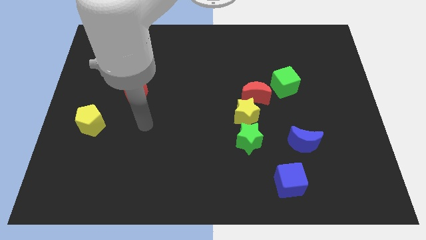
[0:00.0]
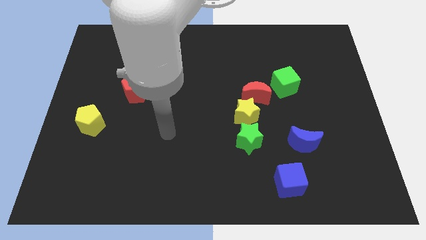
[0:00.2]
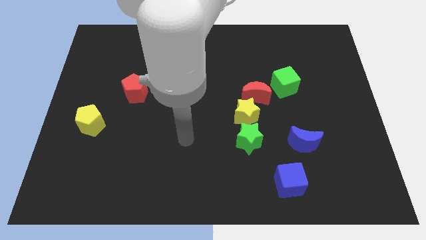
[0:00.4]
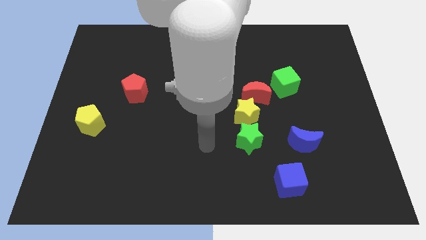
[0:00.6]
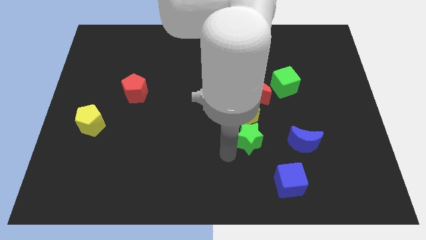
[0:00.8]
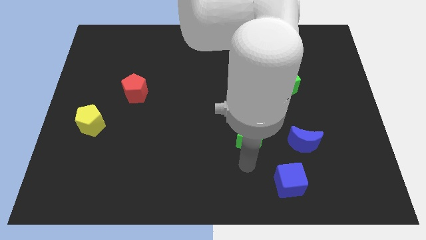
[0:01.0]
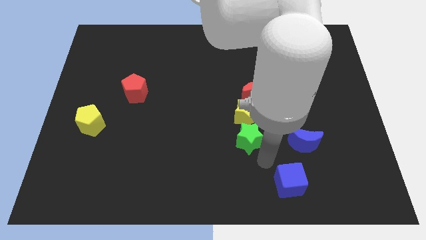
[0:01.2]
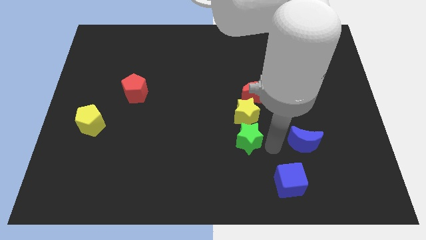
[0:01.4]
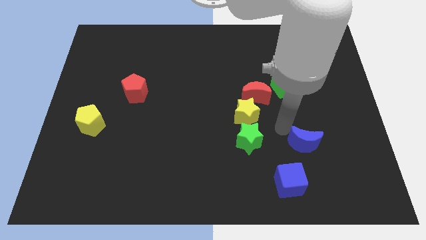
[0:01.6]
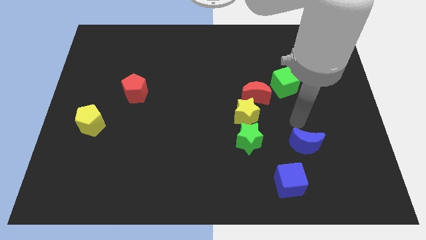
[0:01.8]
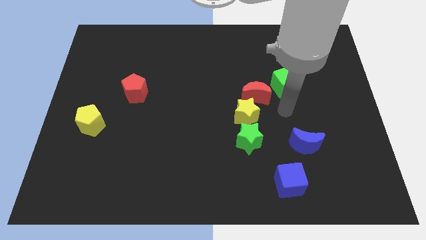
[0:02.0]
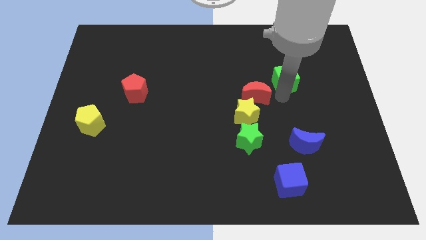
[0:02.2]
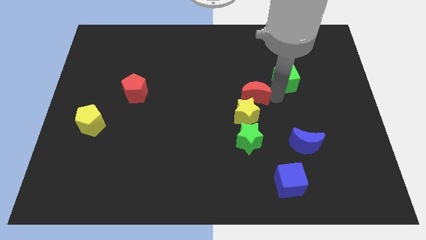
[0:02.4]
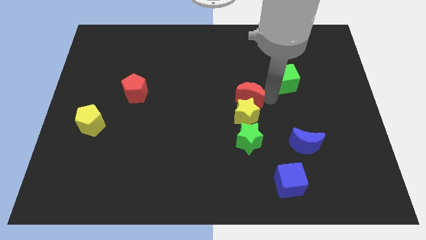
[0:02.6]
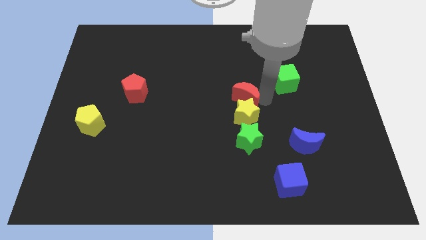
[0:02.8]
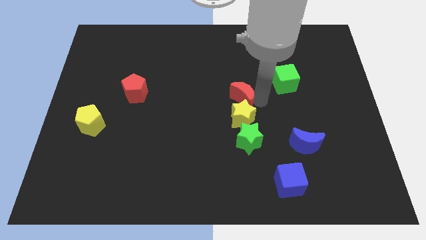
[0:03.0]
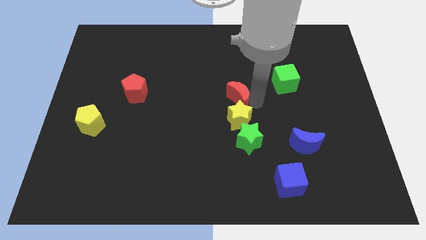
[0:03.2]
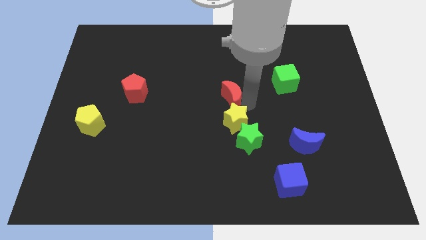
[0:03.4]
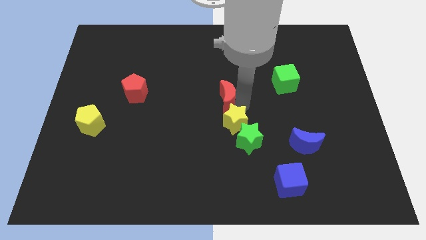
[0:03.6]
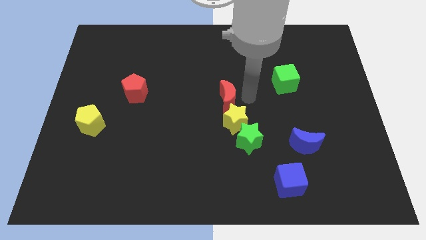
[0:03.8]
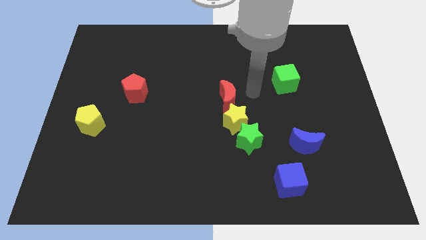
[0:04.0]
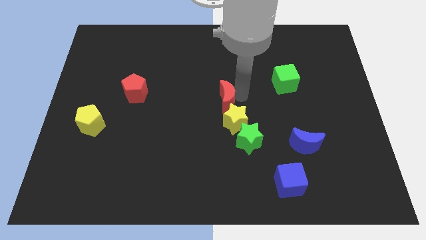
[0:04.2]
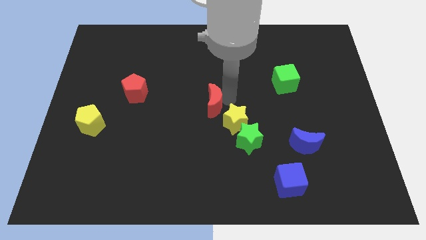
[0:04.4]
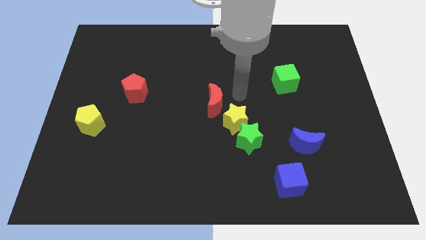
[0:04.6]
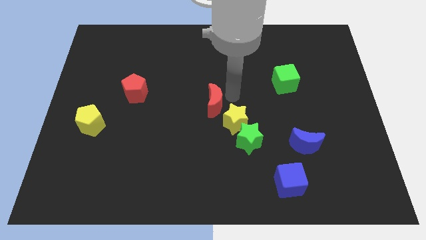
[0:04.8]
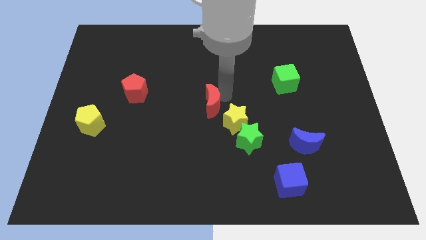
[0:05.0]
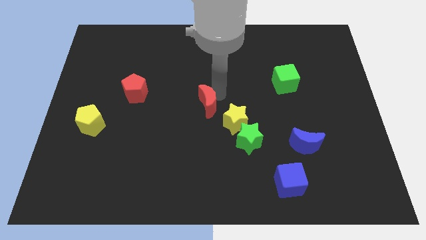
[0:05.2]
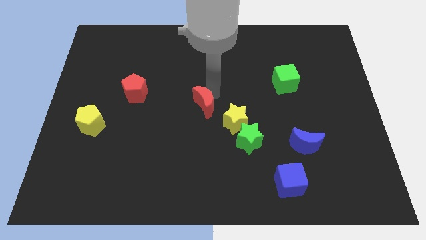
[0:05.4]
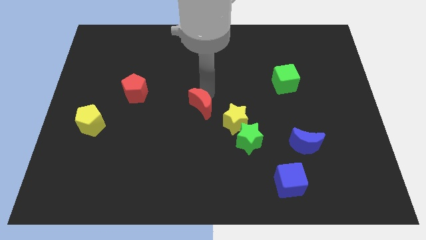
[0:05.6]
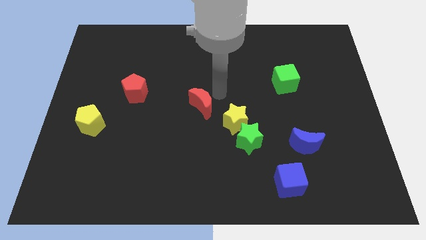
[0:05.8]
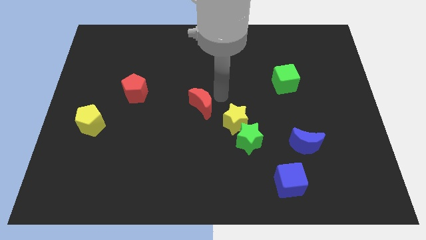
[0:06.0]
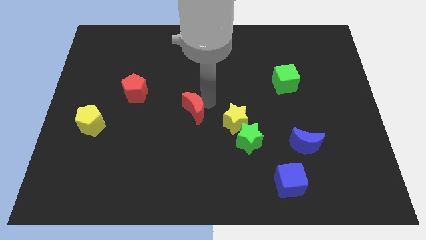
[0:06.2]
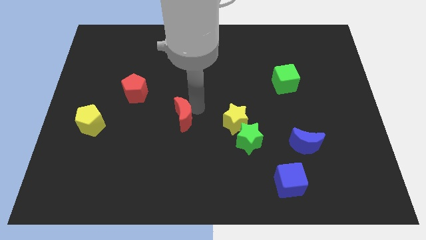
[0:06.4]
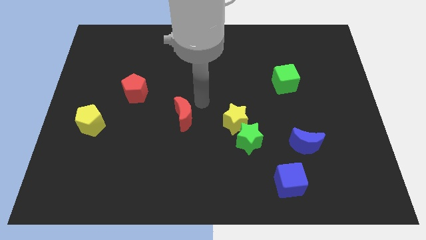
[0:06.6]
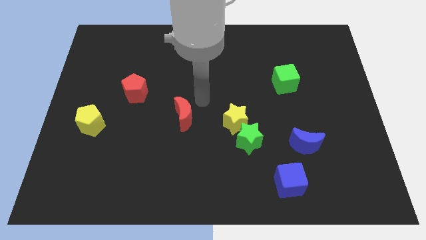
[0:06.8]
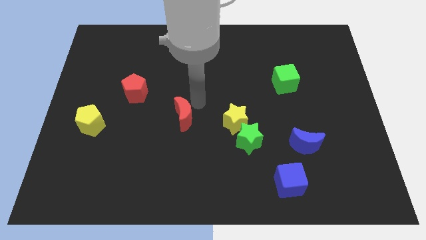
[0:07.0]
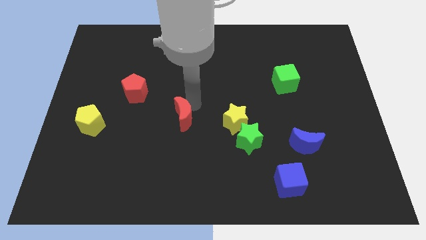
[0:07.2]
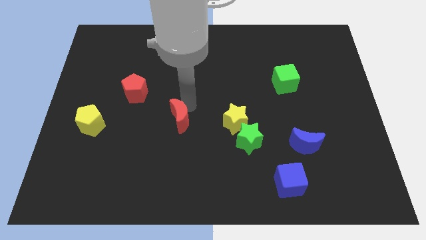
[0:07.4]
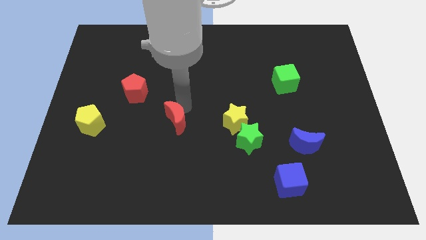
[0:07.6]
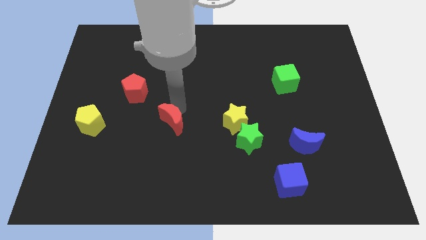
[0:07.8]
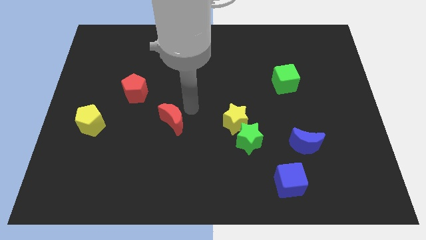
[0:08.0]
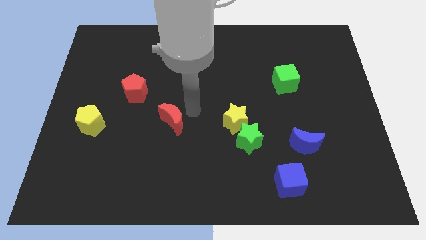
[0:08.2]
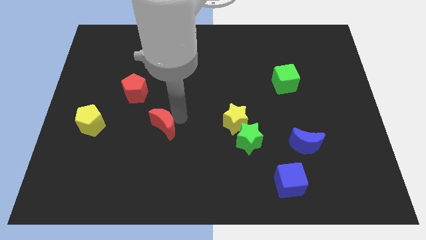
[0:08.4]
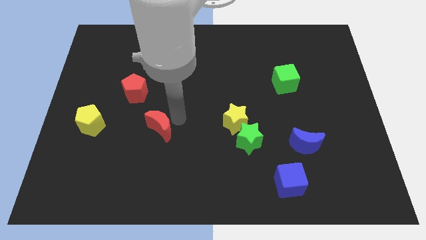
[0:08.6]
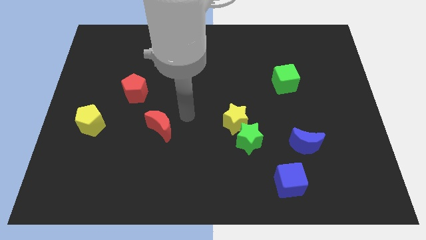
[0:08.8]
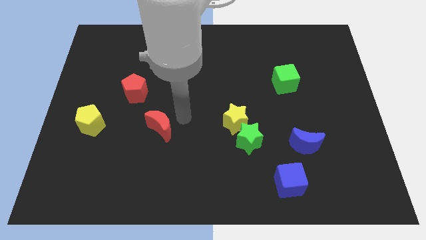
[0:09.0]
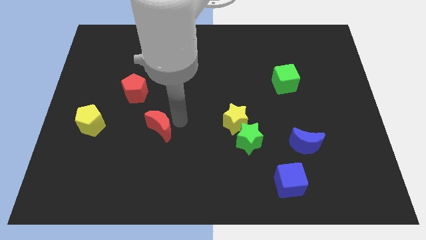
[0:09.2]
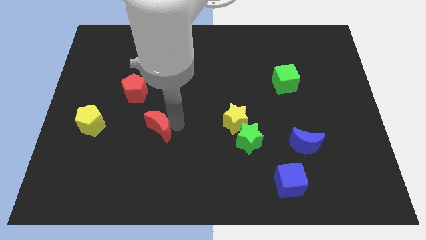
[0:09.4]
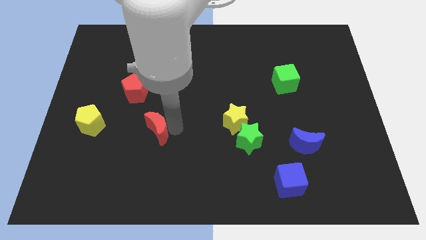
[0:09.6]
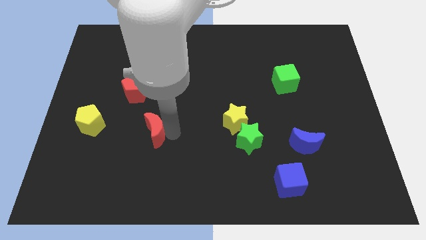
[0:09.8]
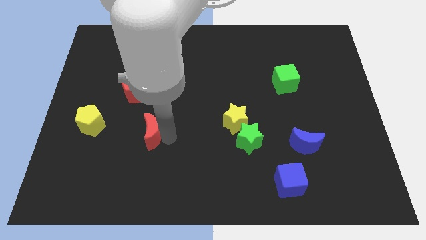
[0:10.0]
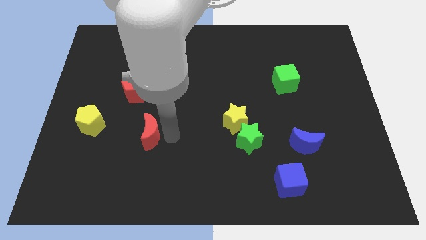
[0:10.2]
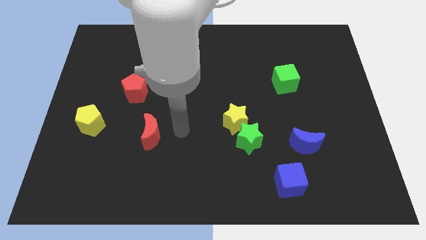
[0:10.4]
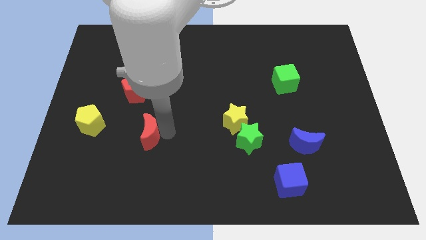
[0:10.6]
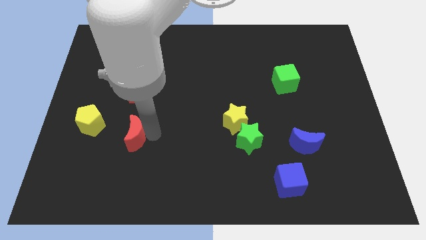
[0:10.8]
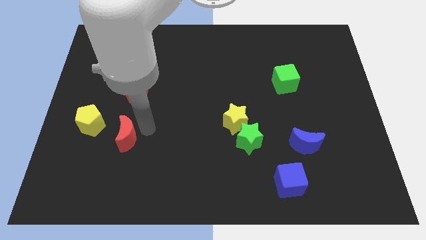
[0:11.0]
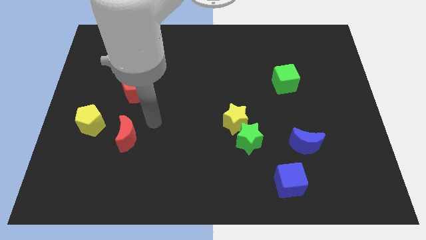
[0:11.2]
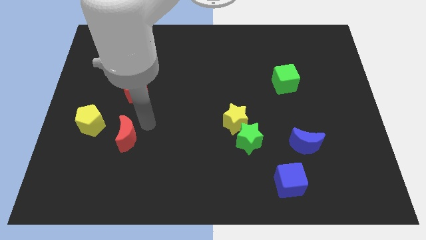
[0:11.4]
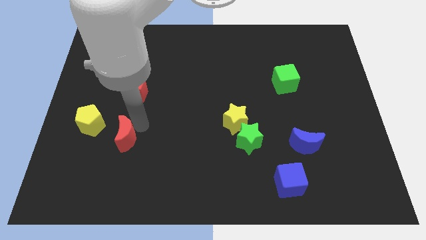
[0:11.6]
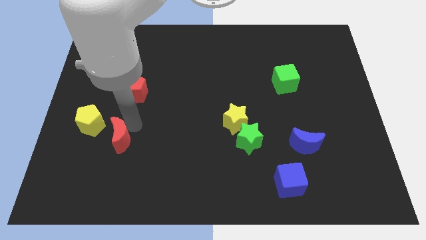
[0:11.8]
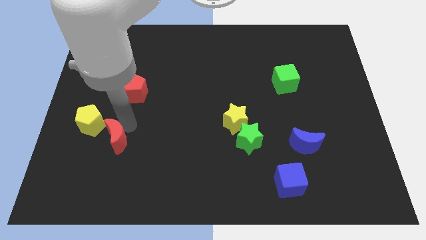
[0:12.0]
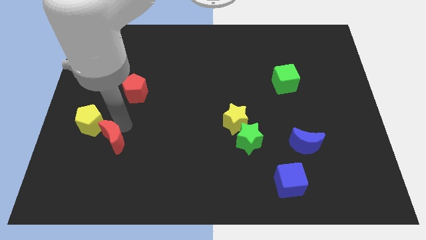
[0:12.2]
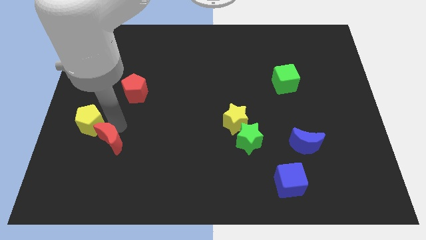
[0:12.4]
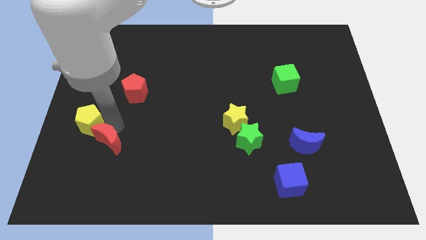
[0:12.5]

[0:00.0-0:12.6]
put the red moon below the yellow pentagon

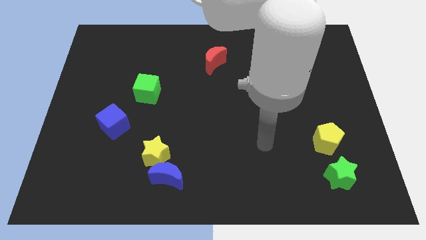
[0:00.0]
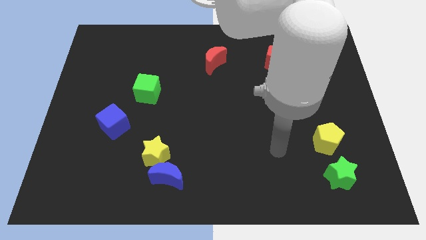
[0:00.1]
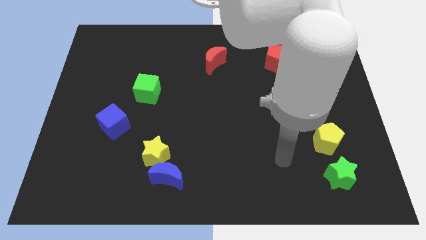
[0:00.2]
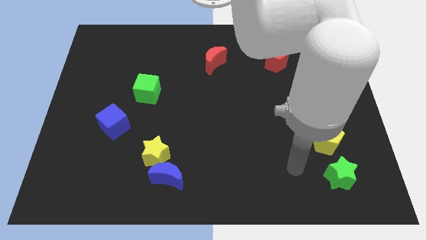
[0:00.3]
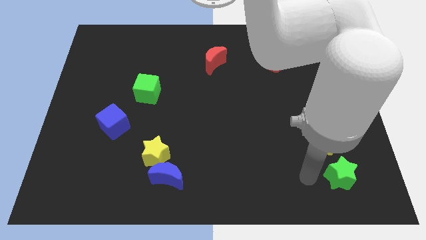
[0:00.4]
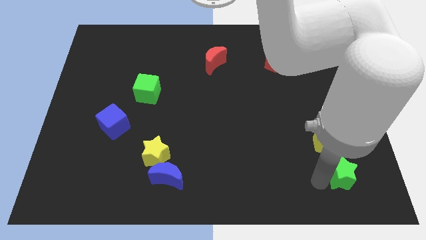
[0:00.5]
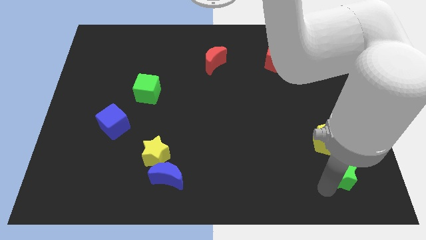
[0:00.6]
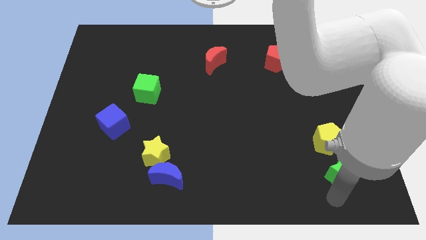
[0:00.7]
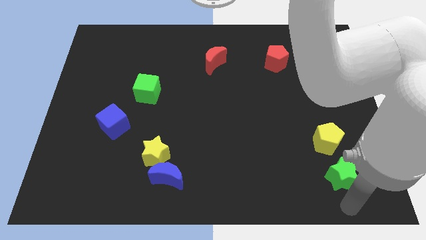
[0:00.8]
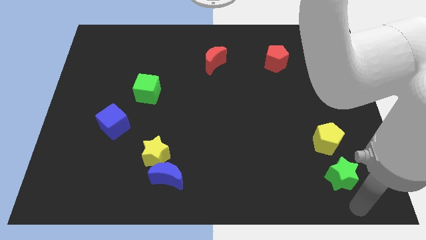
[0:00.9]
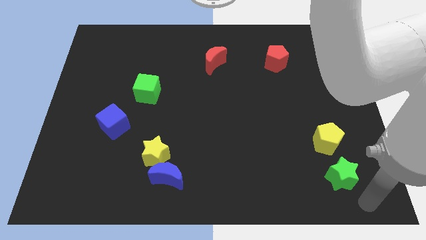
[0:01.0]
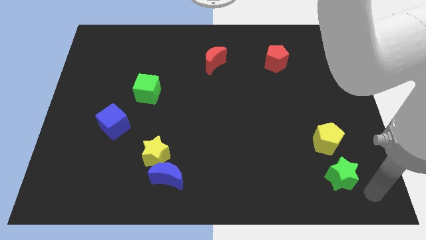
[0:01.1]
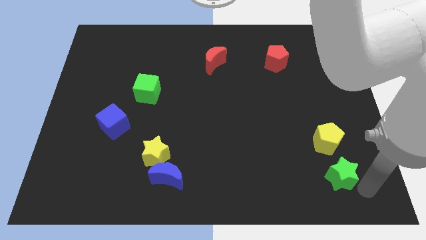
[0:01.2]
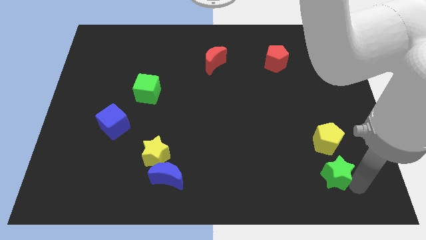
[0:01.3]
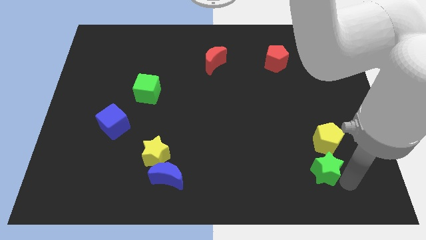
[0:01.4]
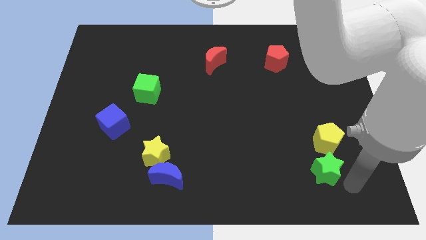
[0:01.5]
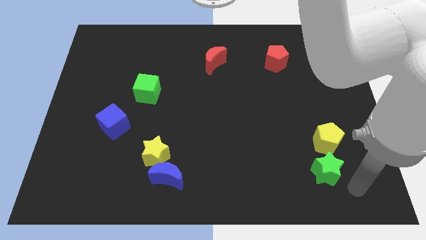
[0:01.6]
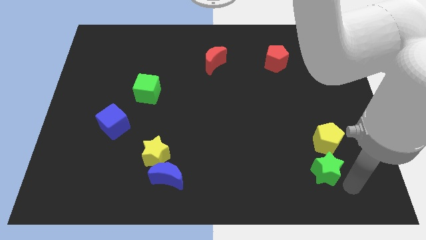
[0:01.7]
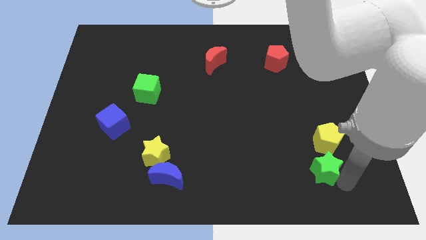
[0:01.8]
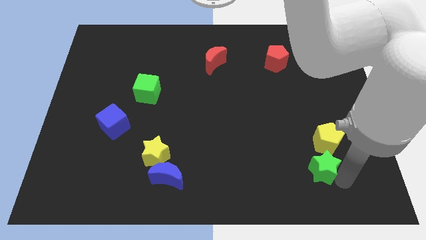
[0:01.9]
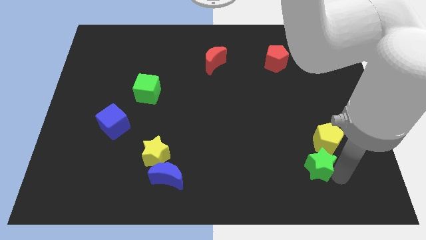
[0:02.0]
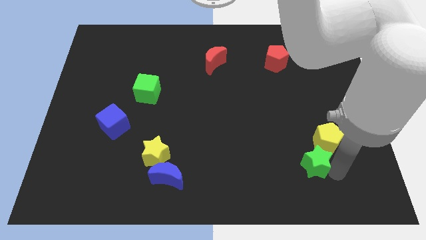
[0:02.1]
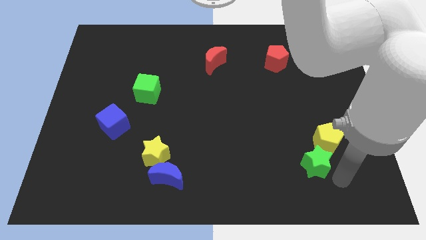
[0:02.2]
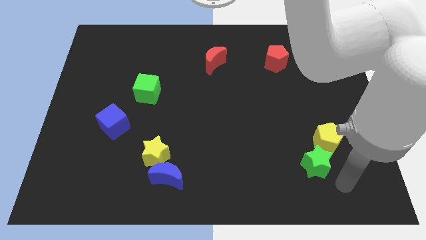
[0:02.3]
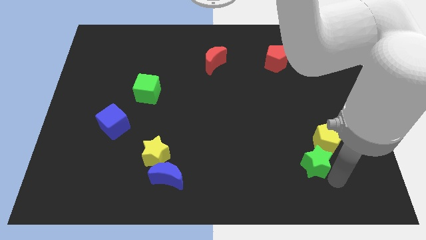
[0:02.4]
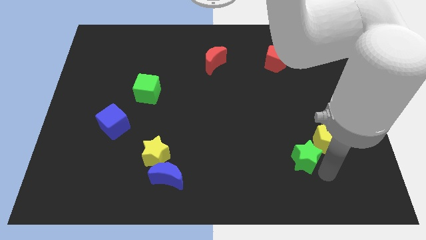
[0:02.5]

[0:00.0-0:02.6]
push the green star to the left side of the yellow pentagon
